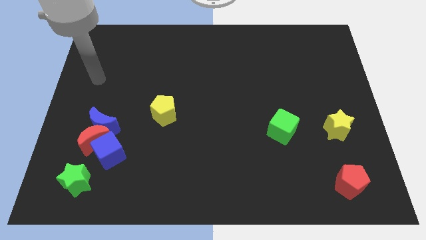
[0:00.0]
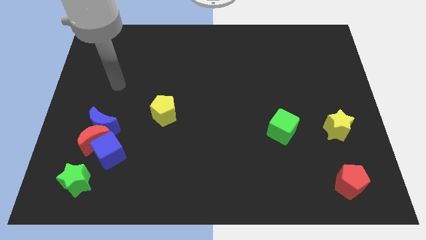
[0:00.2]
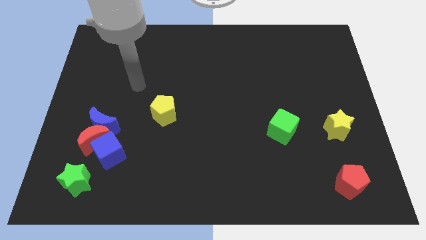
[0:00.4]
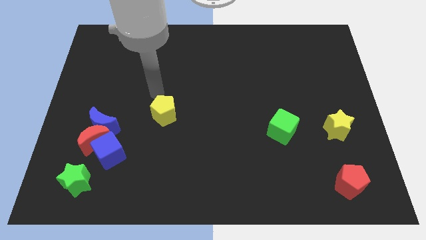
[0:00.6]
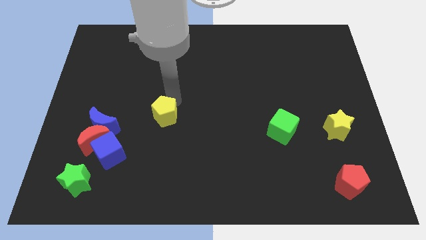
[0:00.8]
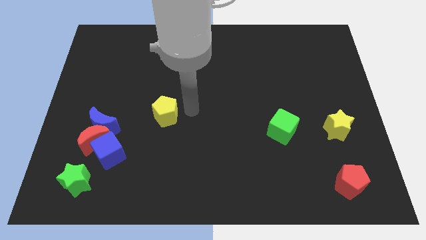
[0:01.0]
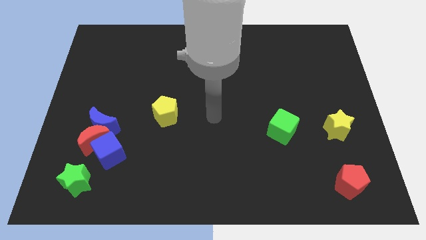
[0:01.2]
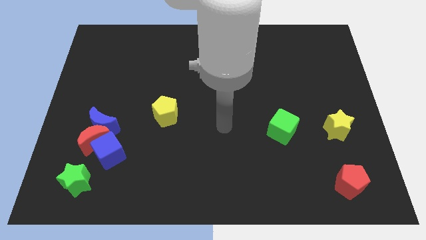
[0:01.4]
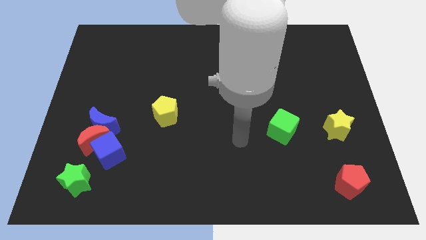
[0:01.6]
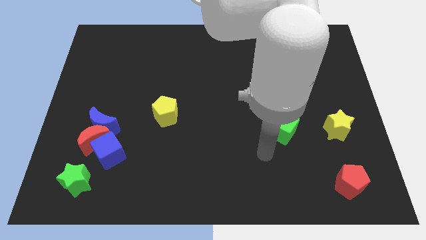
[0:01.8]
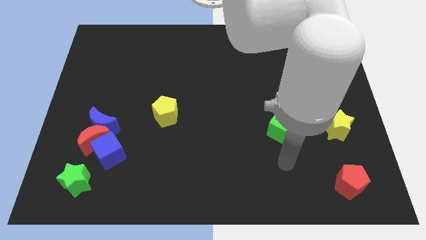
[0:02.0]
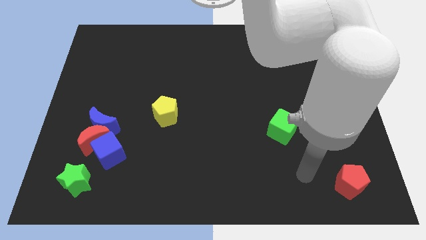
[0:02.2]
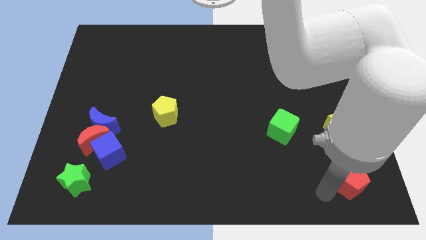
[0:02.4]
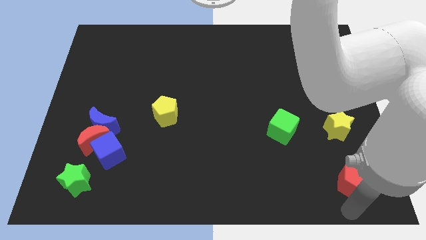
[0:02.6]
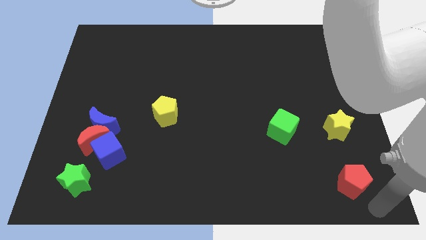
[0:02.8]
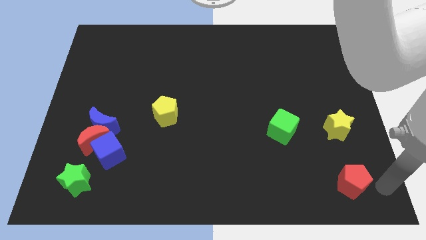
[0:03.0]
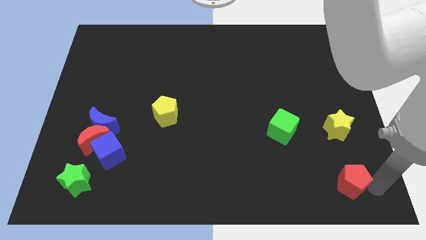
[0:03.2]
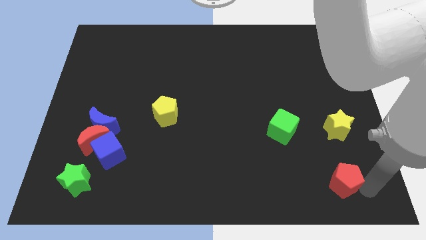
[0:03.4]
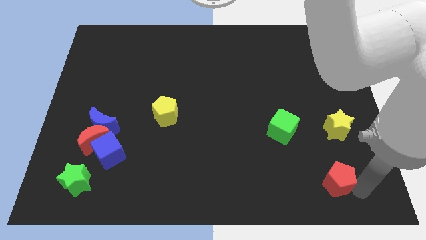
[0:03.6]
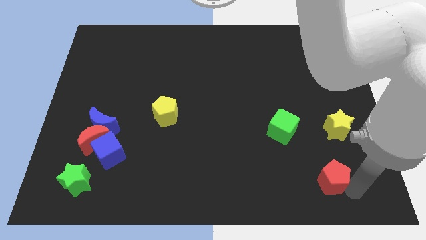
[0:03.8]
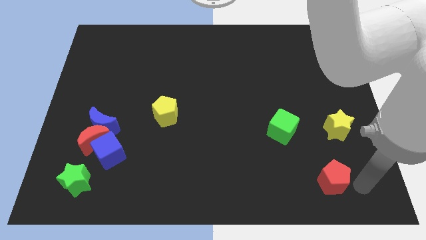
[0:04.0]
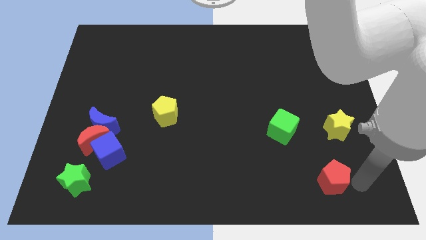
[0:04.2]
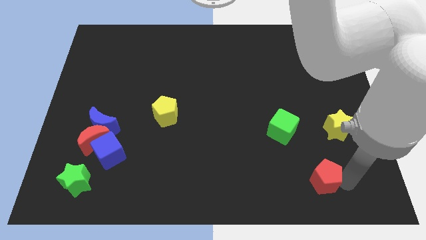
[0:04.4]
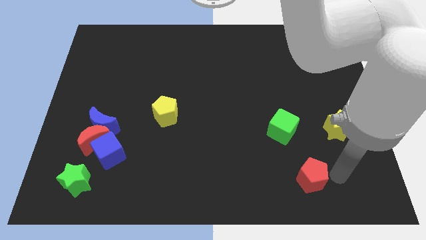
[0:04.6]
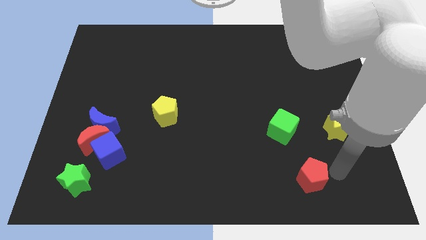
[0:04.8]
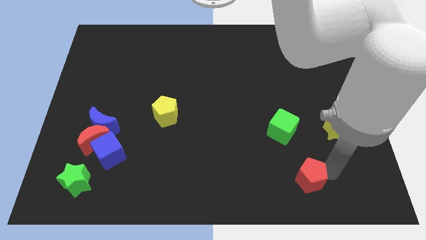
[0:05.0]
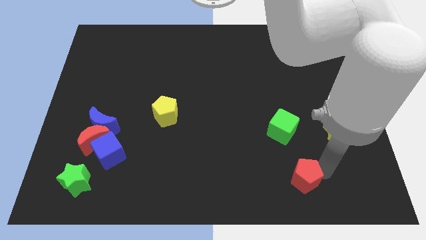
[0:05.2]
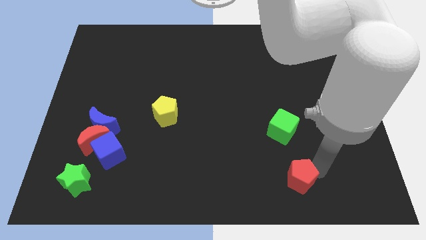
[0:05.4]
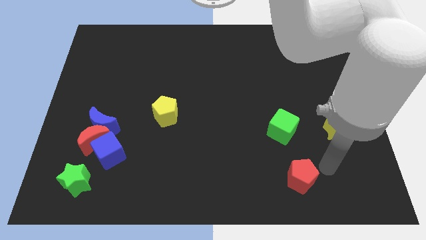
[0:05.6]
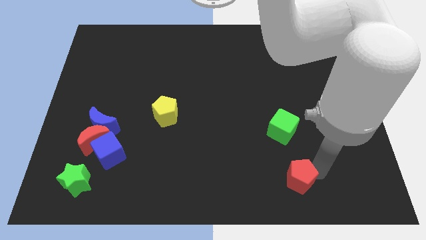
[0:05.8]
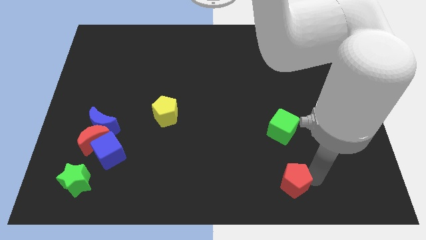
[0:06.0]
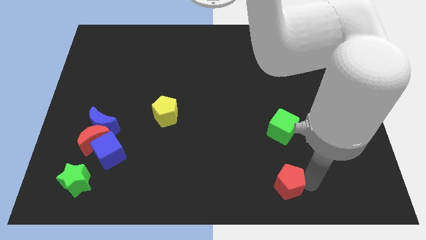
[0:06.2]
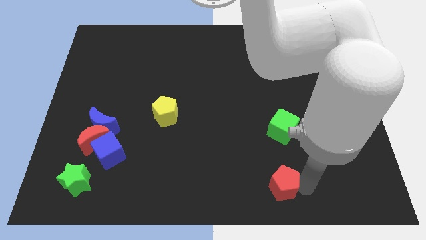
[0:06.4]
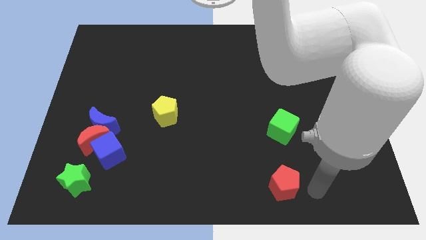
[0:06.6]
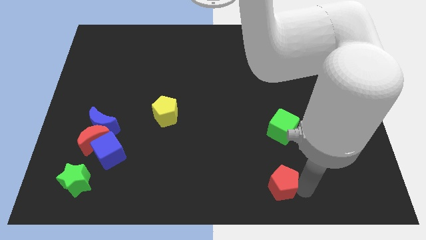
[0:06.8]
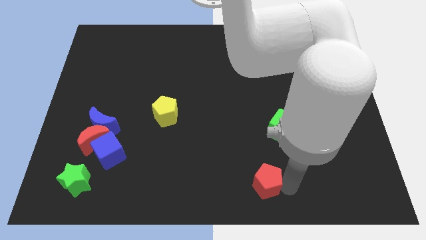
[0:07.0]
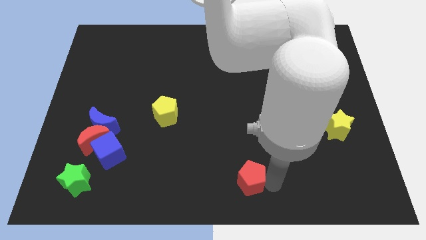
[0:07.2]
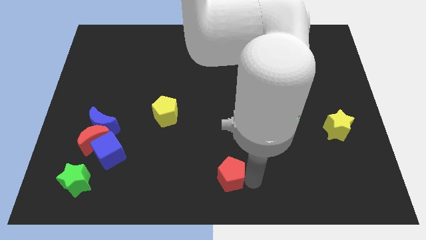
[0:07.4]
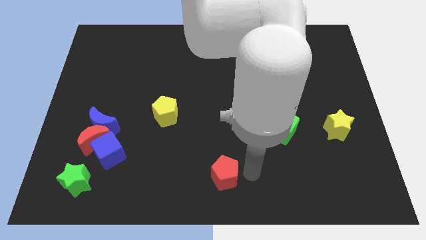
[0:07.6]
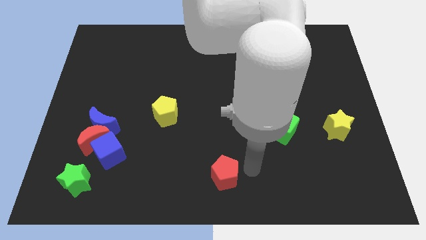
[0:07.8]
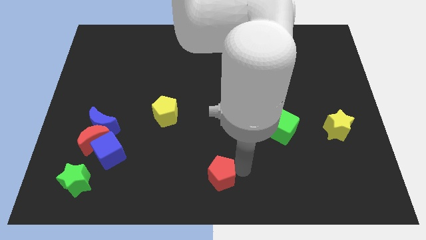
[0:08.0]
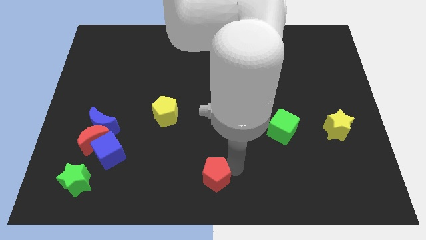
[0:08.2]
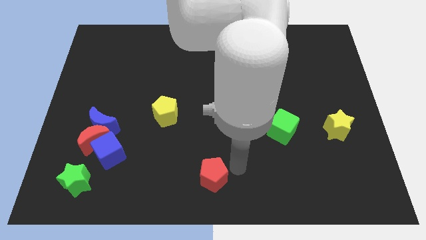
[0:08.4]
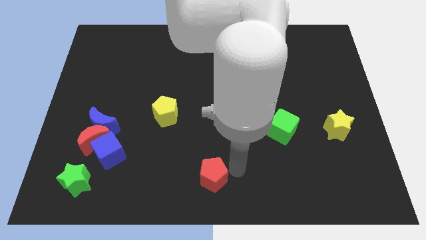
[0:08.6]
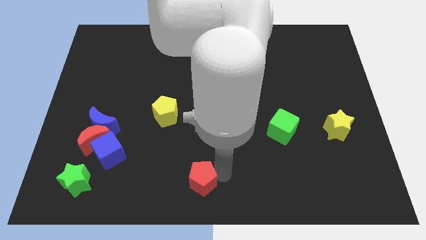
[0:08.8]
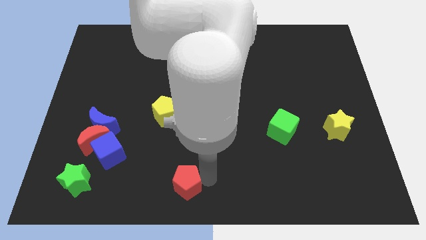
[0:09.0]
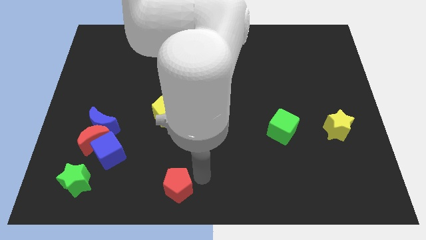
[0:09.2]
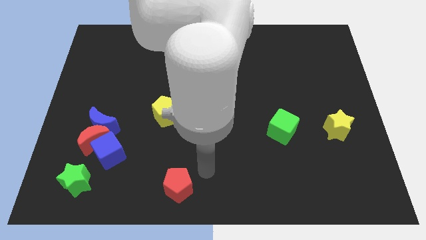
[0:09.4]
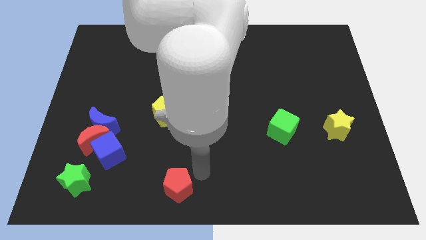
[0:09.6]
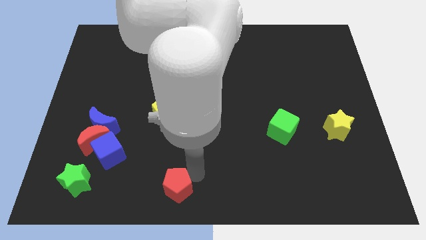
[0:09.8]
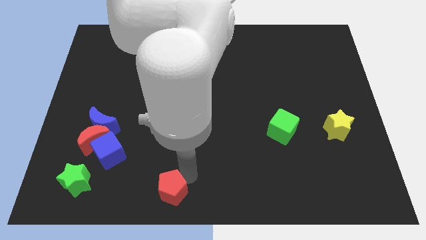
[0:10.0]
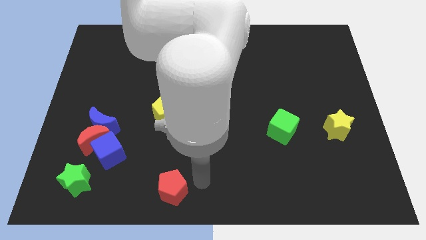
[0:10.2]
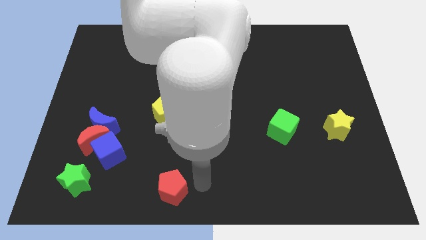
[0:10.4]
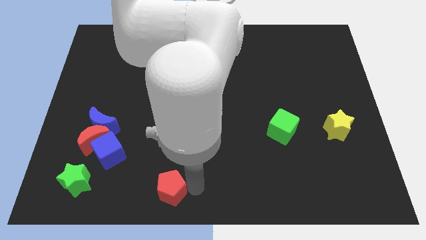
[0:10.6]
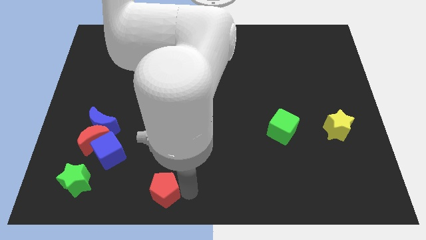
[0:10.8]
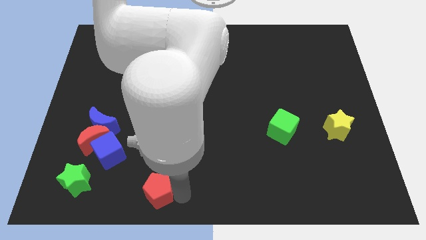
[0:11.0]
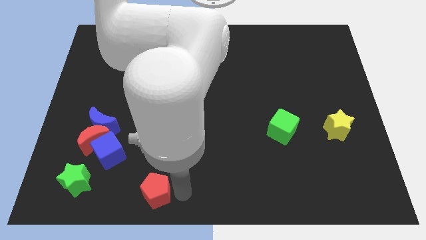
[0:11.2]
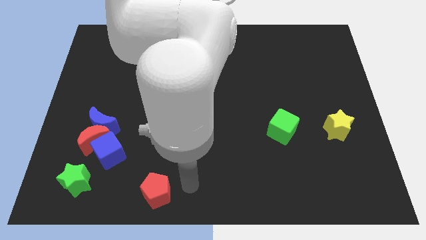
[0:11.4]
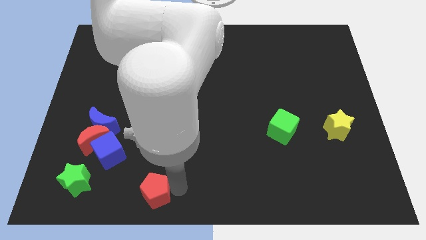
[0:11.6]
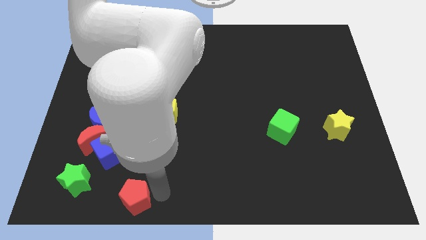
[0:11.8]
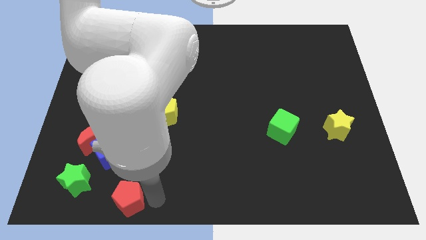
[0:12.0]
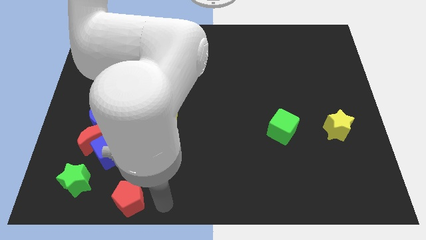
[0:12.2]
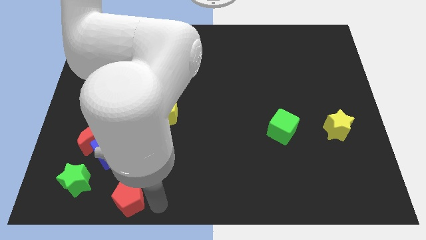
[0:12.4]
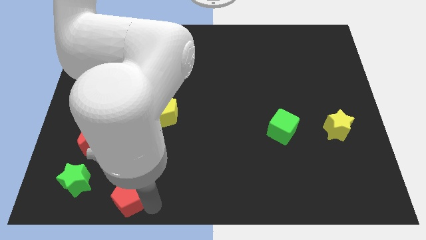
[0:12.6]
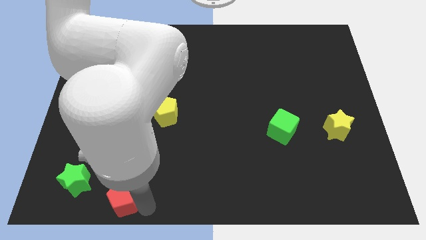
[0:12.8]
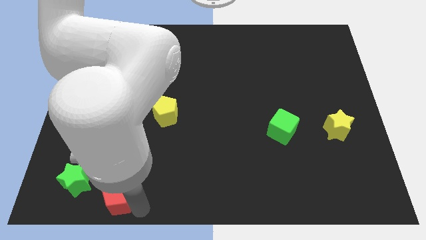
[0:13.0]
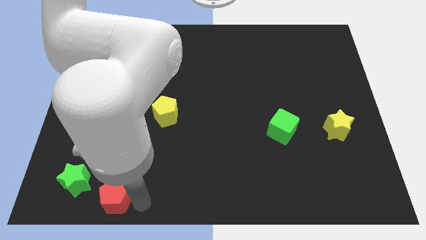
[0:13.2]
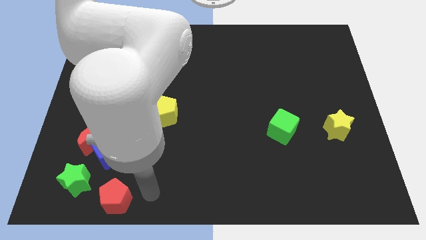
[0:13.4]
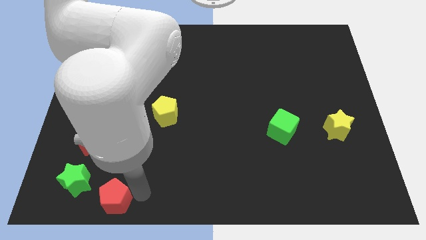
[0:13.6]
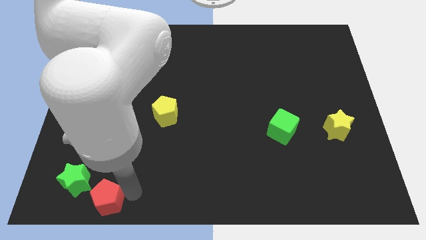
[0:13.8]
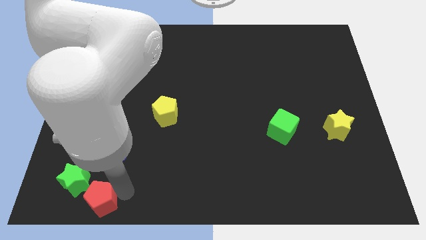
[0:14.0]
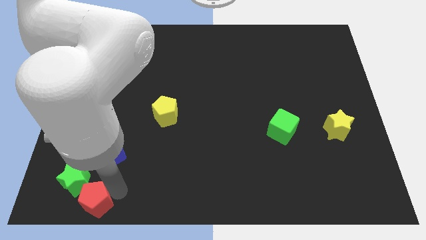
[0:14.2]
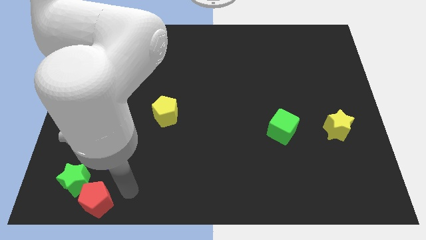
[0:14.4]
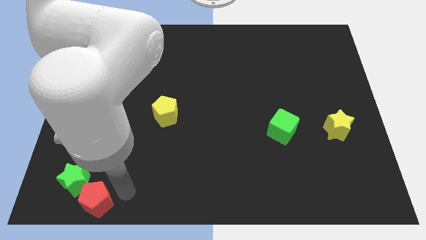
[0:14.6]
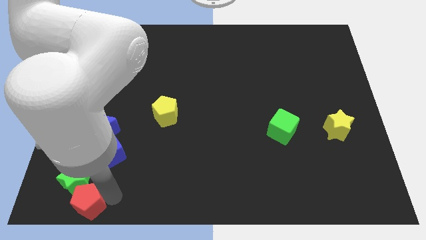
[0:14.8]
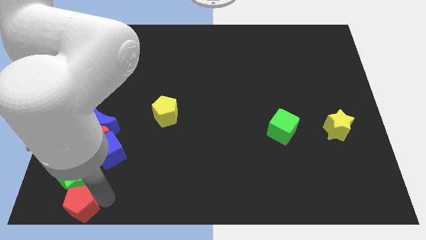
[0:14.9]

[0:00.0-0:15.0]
slide the red pentagon to the bottom left of the board
